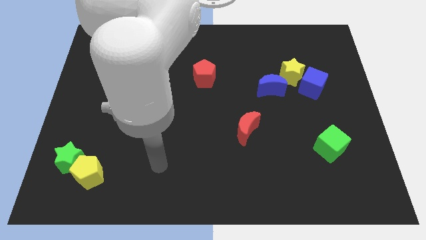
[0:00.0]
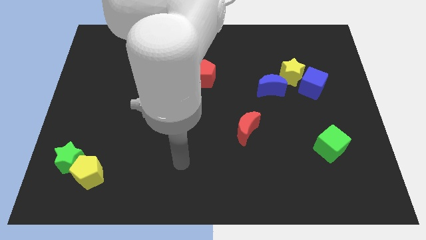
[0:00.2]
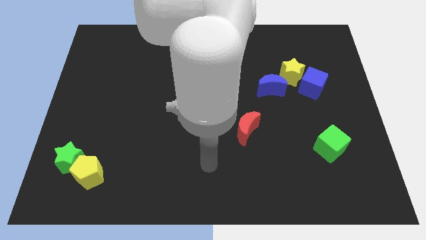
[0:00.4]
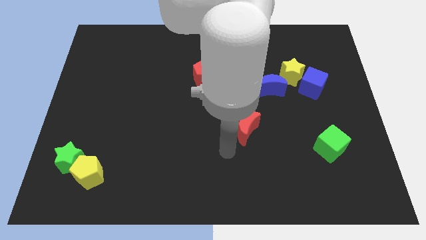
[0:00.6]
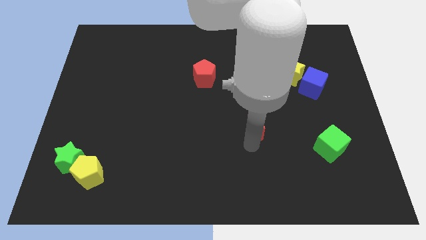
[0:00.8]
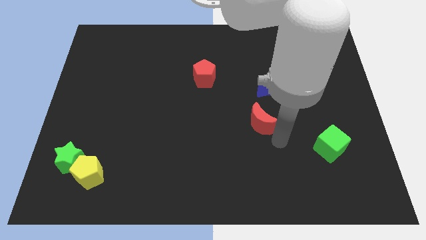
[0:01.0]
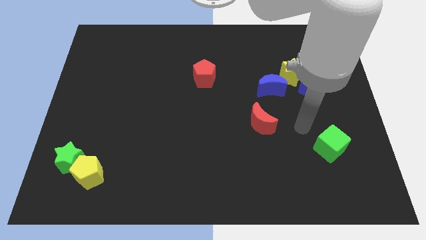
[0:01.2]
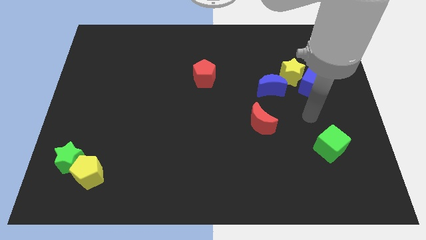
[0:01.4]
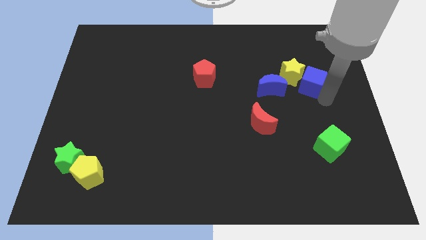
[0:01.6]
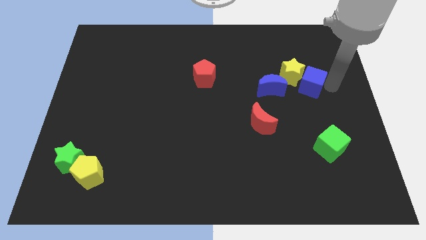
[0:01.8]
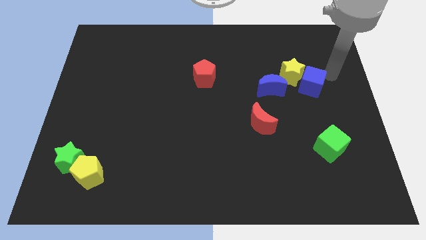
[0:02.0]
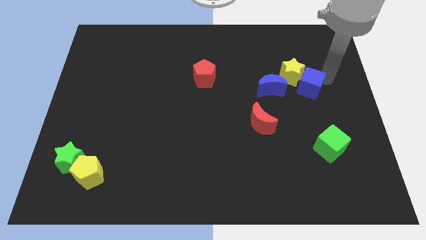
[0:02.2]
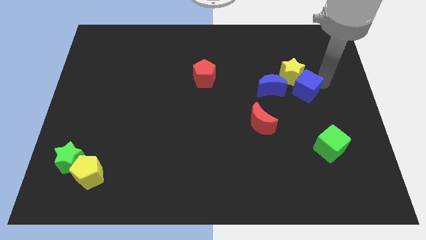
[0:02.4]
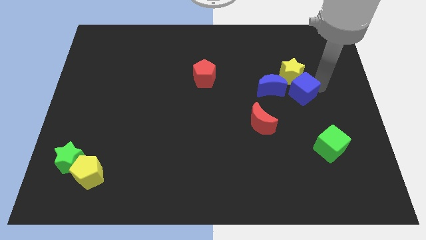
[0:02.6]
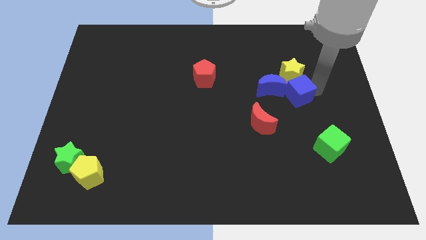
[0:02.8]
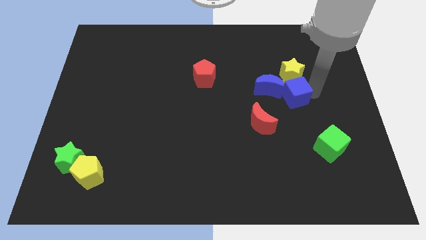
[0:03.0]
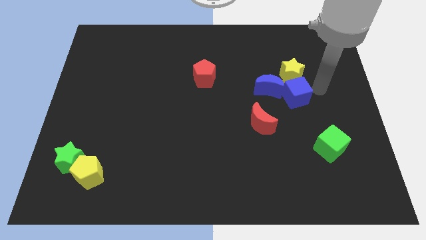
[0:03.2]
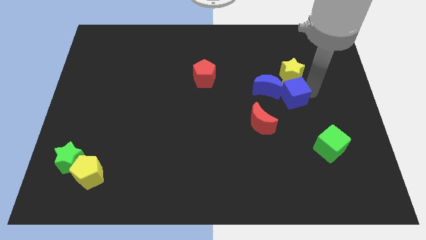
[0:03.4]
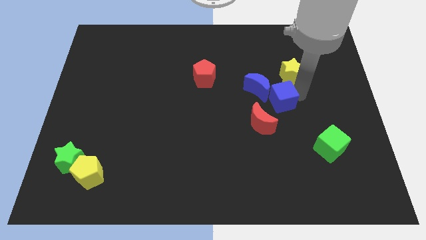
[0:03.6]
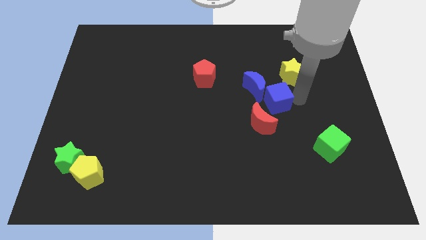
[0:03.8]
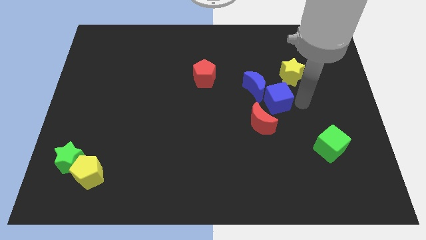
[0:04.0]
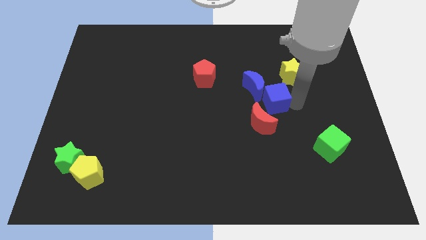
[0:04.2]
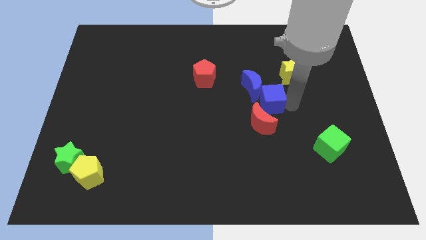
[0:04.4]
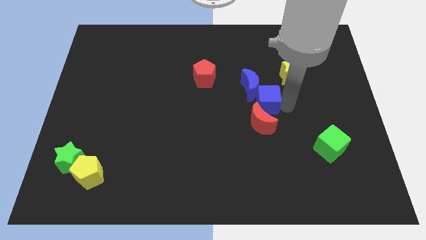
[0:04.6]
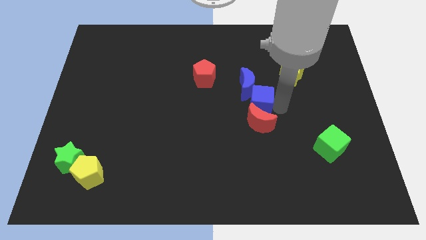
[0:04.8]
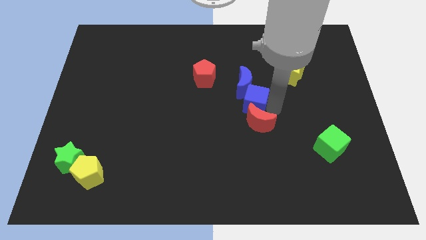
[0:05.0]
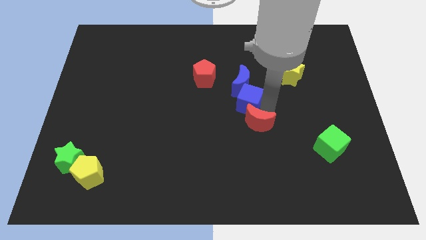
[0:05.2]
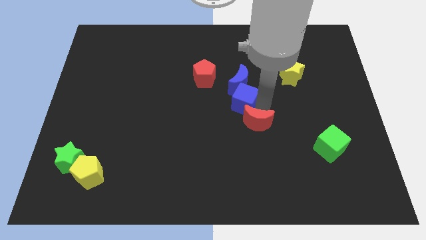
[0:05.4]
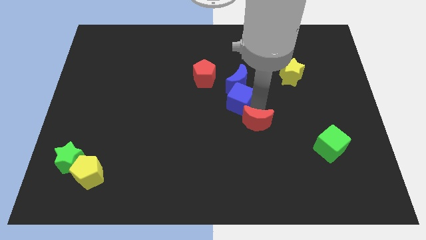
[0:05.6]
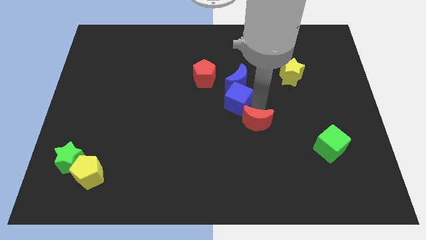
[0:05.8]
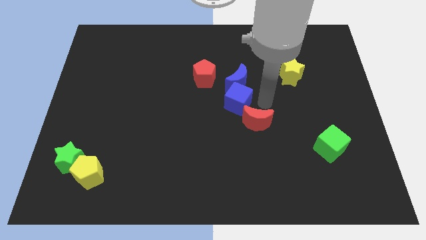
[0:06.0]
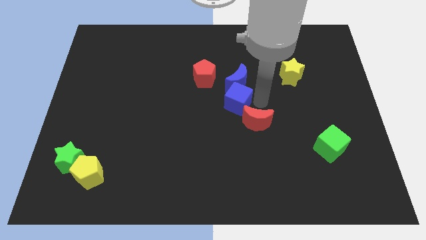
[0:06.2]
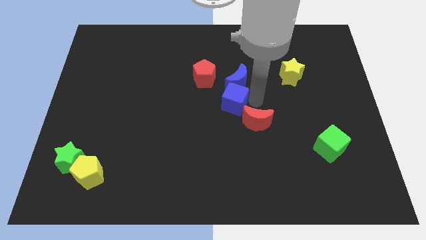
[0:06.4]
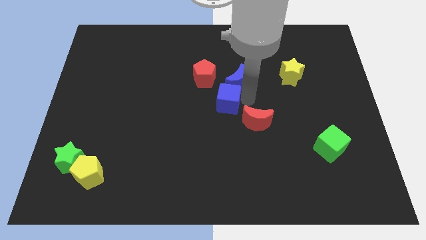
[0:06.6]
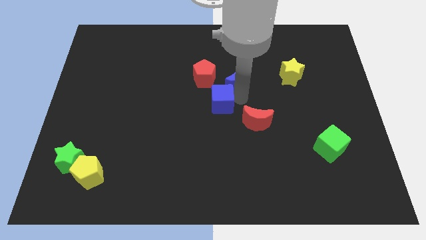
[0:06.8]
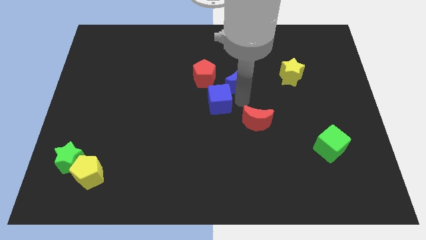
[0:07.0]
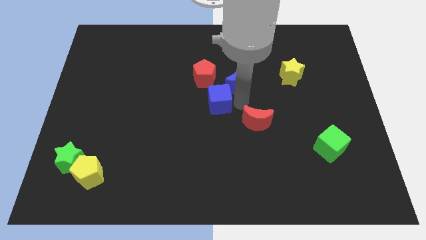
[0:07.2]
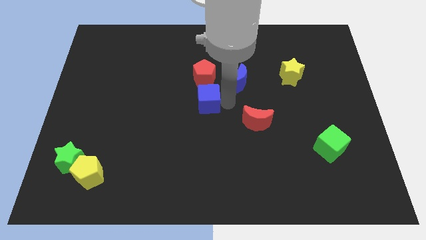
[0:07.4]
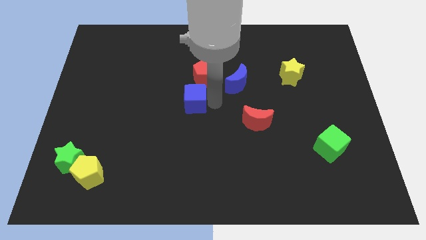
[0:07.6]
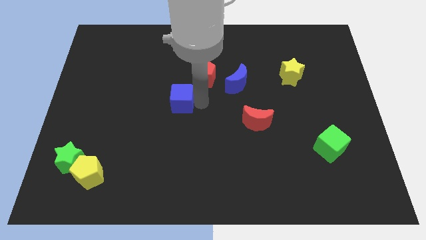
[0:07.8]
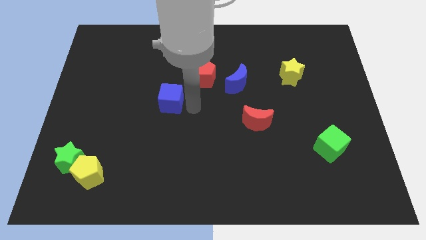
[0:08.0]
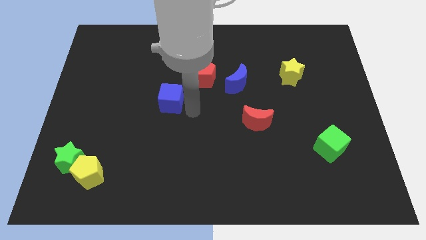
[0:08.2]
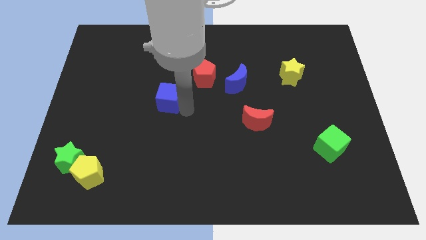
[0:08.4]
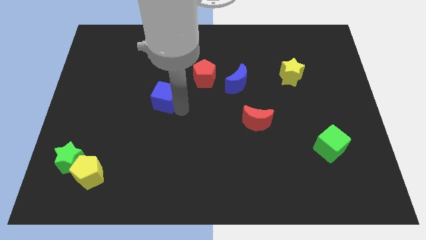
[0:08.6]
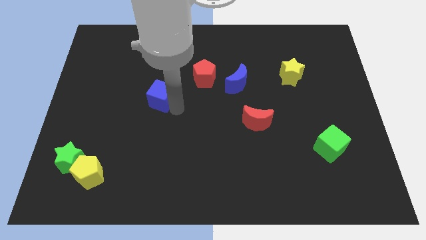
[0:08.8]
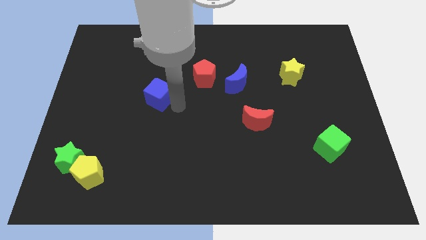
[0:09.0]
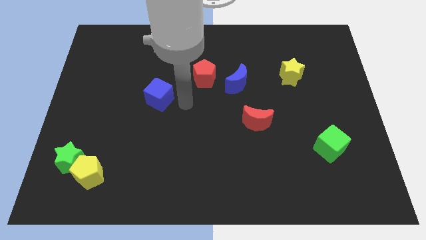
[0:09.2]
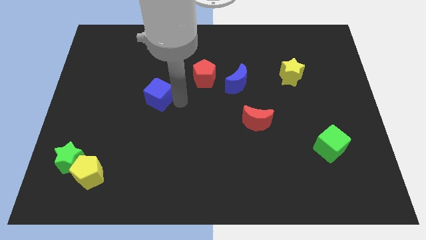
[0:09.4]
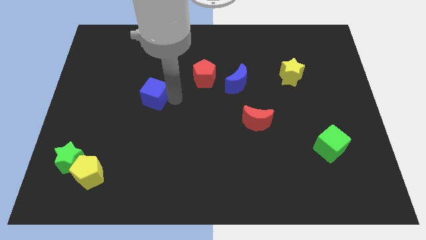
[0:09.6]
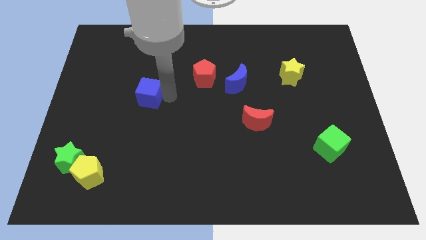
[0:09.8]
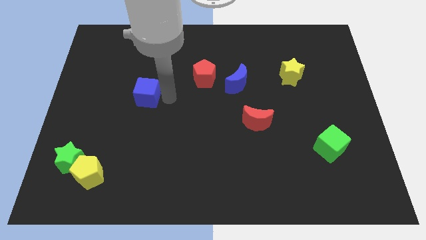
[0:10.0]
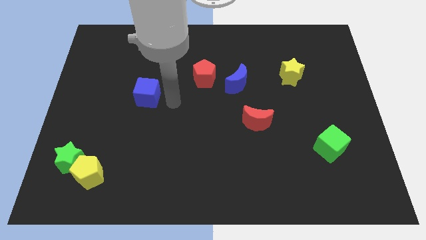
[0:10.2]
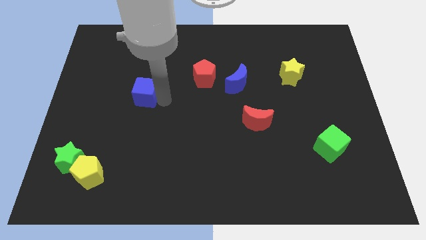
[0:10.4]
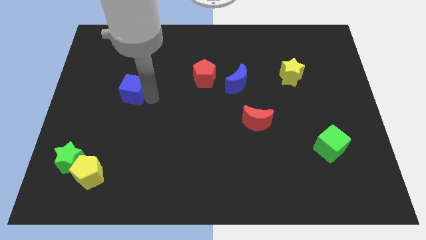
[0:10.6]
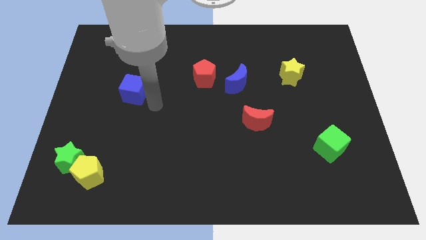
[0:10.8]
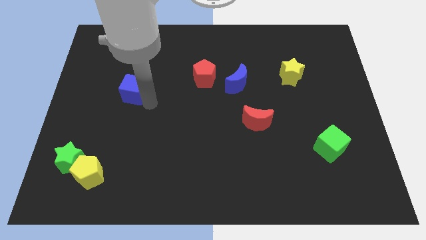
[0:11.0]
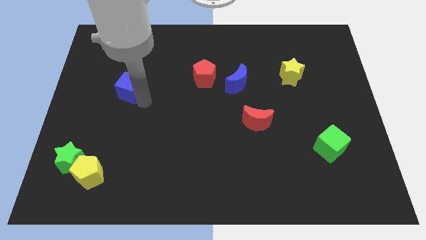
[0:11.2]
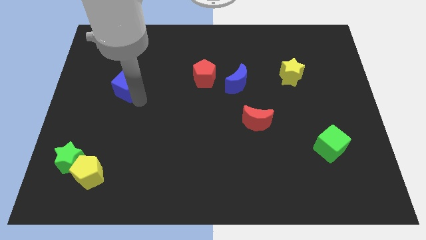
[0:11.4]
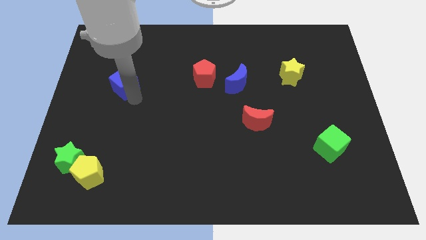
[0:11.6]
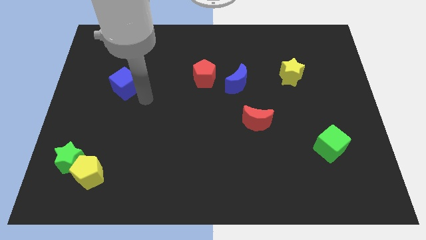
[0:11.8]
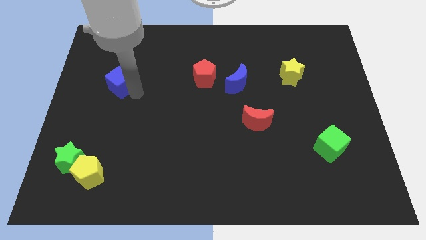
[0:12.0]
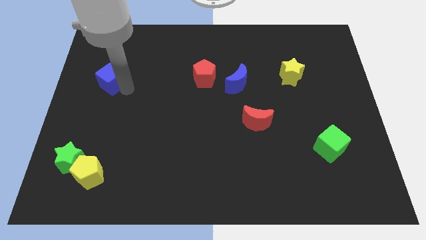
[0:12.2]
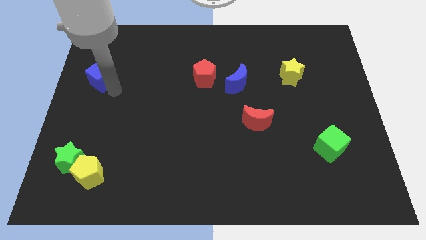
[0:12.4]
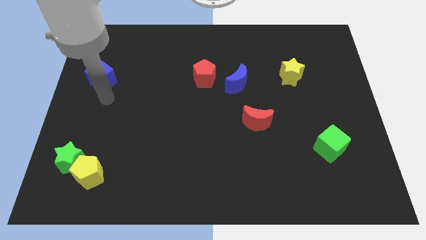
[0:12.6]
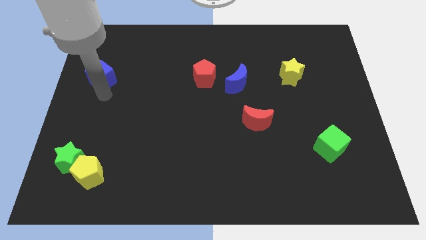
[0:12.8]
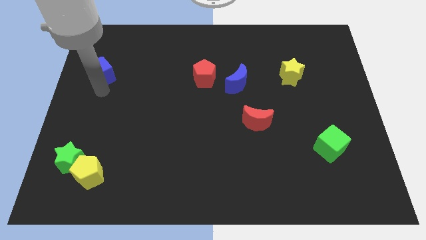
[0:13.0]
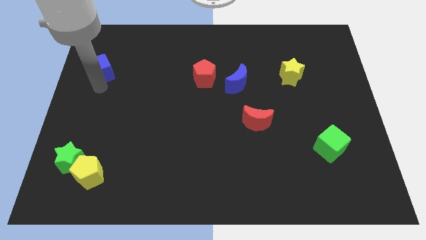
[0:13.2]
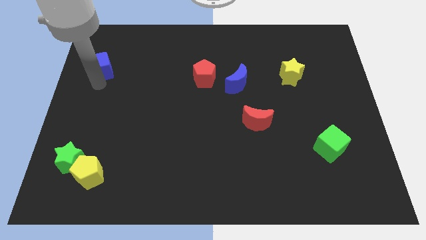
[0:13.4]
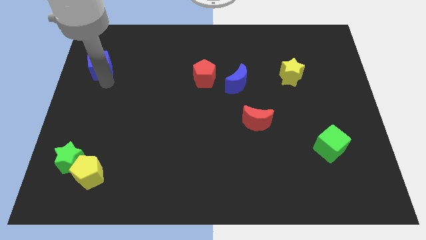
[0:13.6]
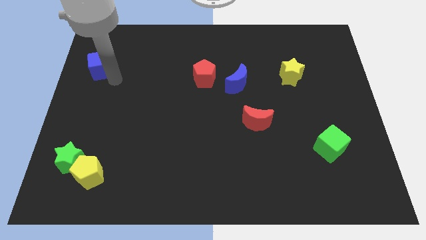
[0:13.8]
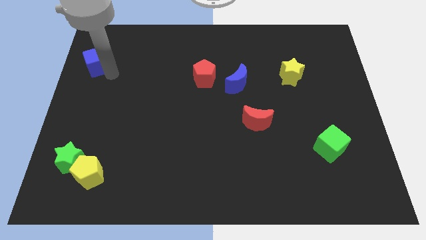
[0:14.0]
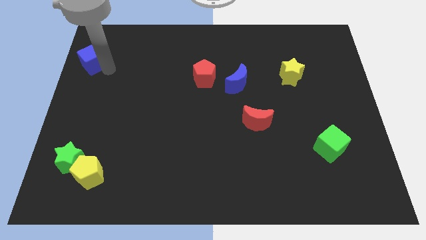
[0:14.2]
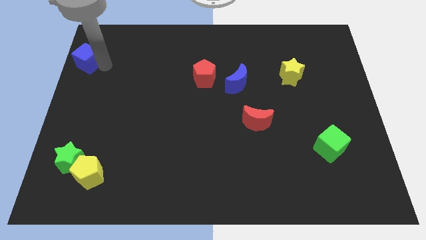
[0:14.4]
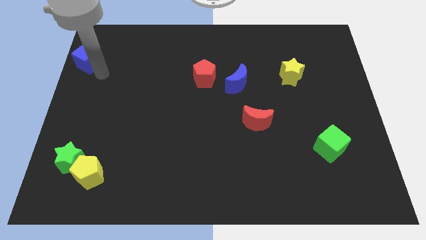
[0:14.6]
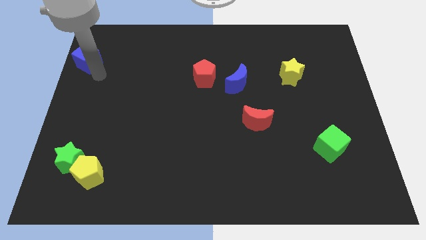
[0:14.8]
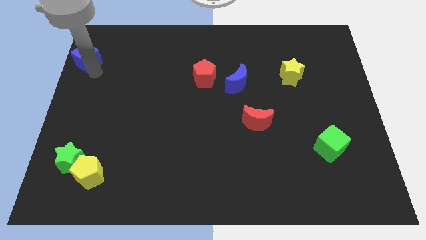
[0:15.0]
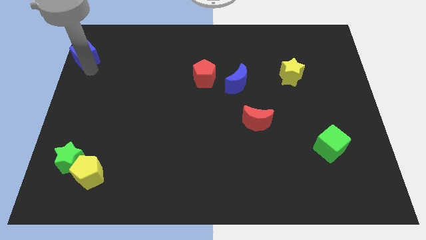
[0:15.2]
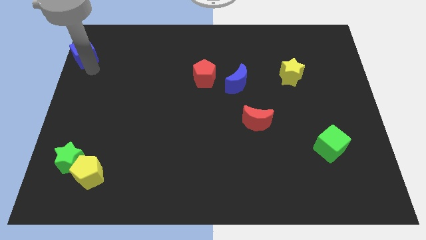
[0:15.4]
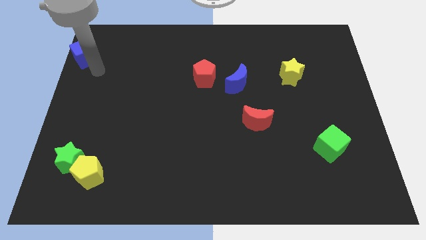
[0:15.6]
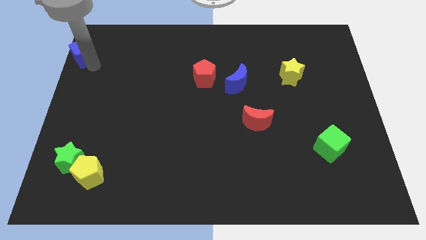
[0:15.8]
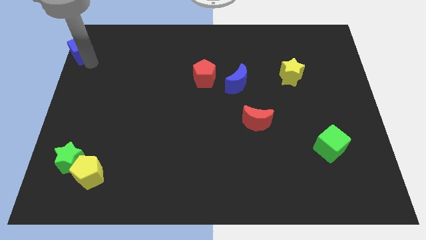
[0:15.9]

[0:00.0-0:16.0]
move the blue cube to the top left of the board
